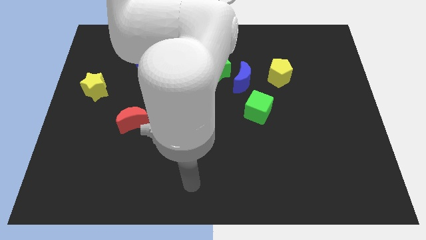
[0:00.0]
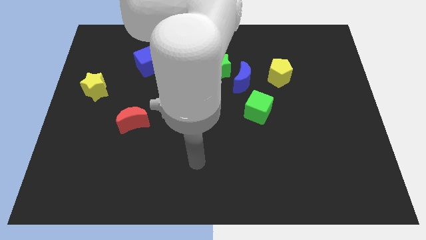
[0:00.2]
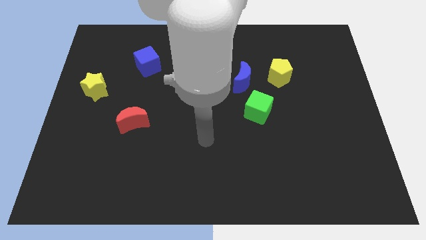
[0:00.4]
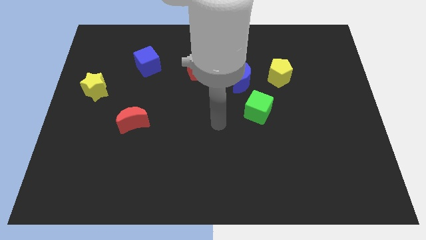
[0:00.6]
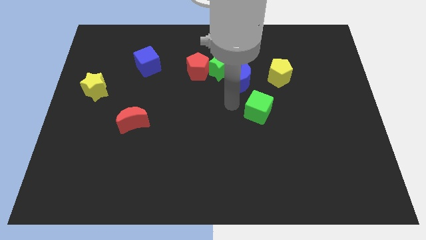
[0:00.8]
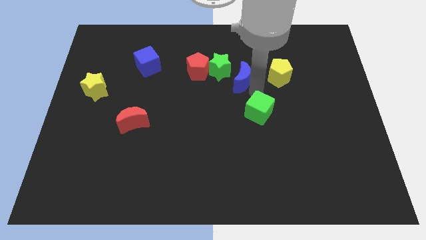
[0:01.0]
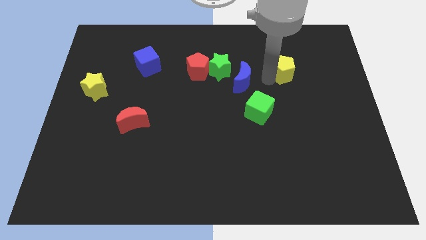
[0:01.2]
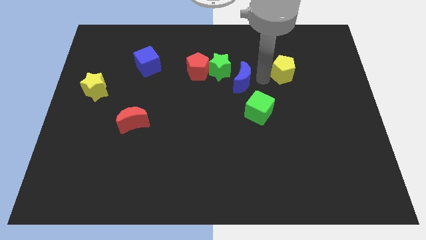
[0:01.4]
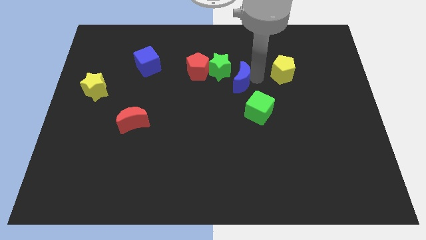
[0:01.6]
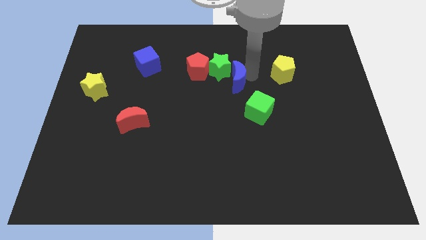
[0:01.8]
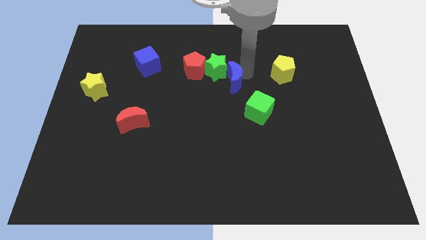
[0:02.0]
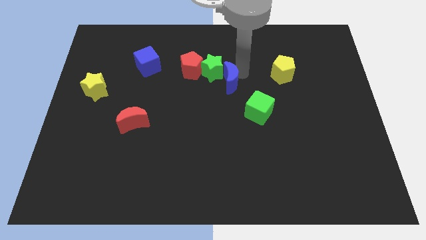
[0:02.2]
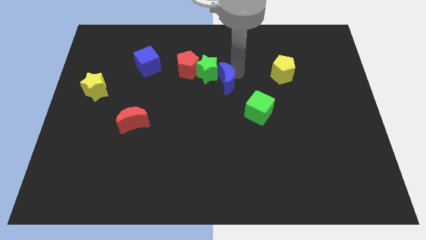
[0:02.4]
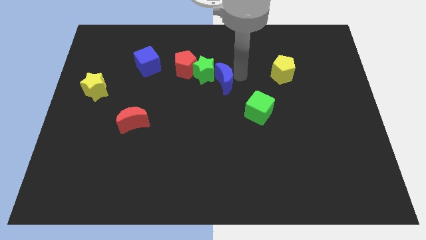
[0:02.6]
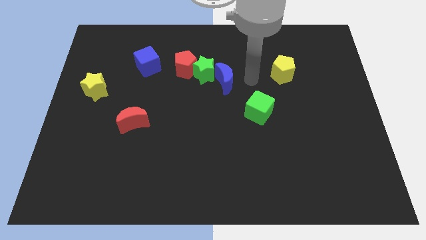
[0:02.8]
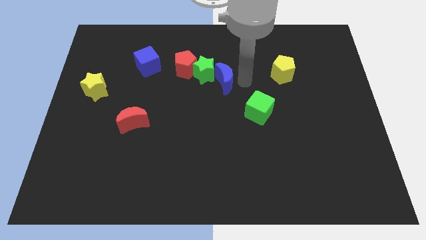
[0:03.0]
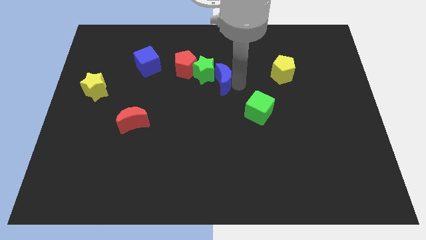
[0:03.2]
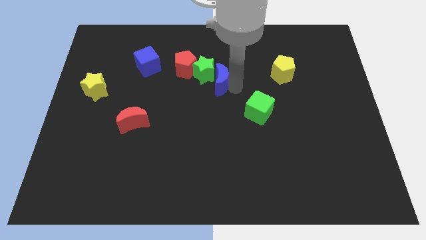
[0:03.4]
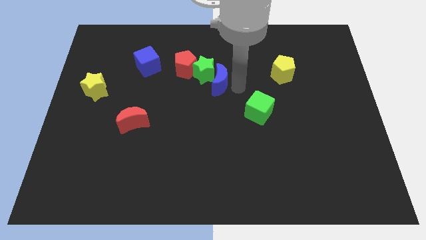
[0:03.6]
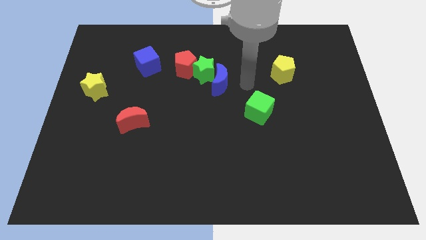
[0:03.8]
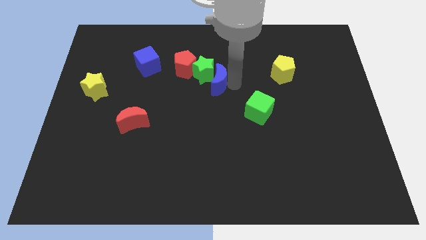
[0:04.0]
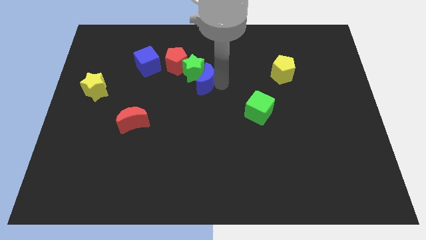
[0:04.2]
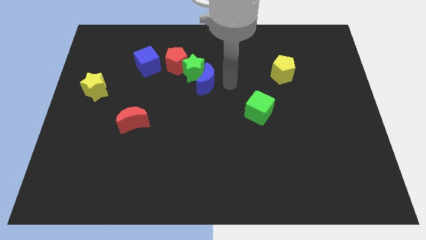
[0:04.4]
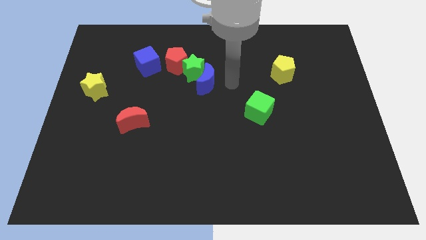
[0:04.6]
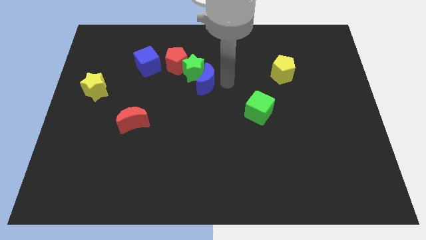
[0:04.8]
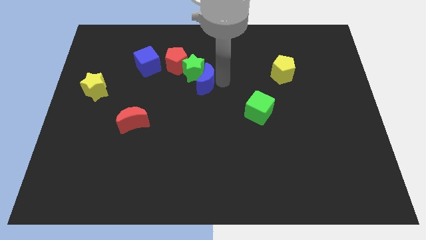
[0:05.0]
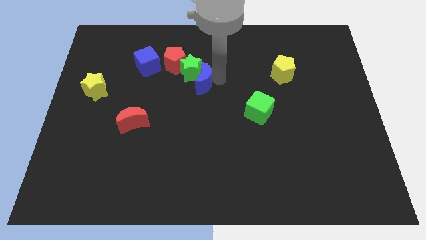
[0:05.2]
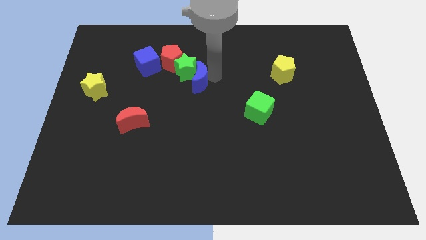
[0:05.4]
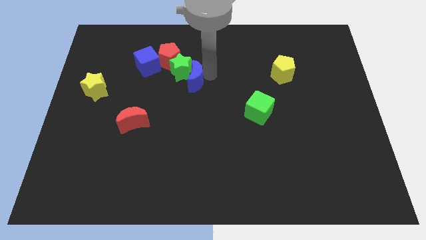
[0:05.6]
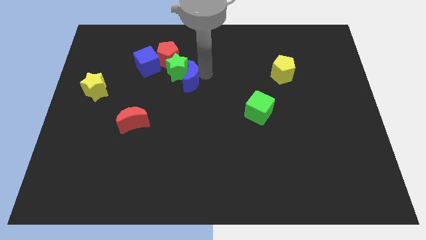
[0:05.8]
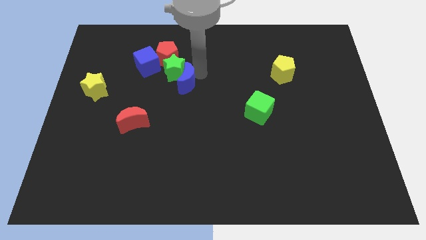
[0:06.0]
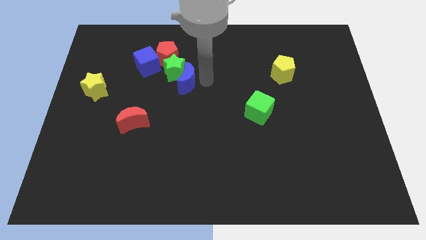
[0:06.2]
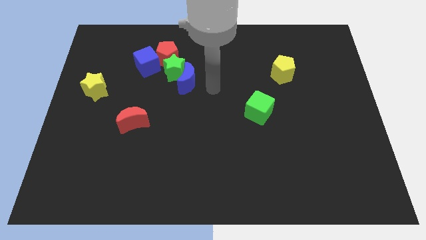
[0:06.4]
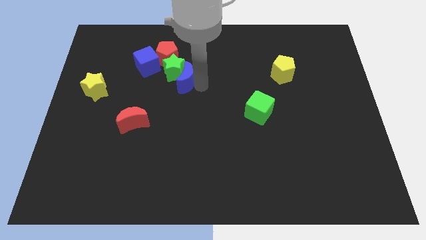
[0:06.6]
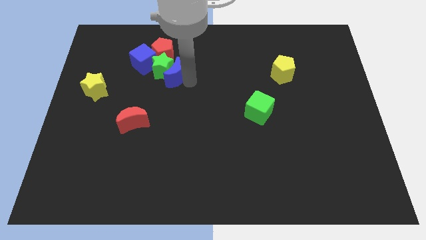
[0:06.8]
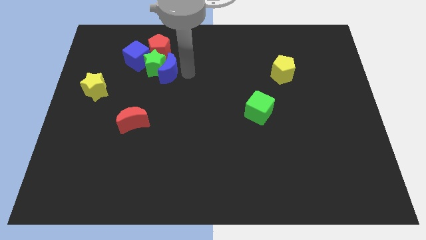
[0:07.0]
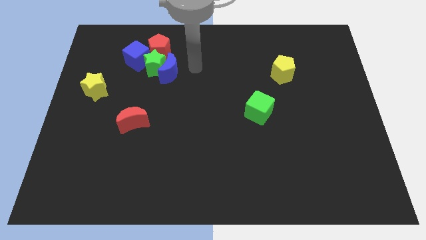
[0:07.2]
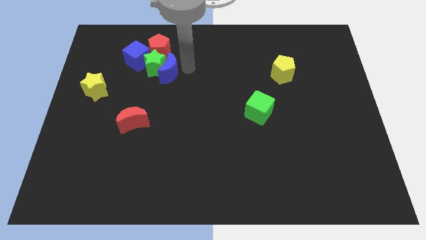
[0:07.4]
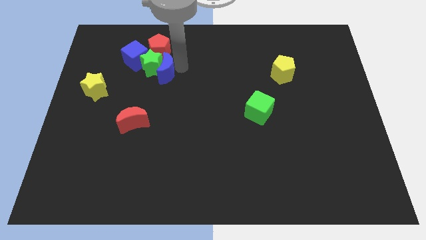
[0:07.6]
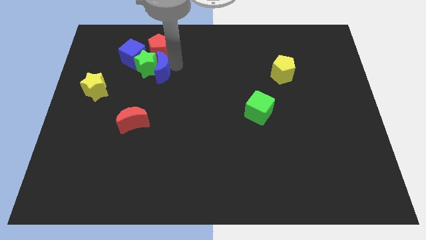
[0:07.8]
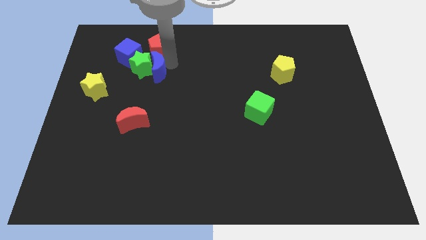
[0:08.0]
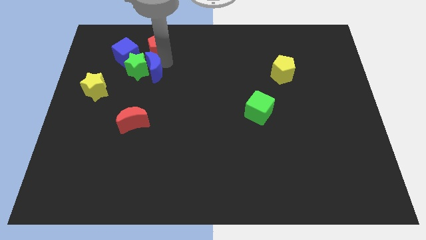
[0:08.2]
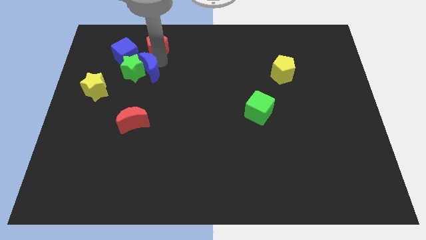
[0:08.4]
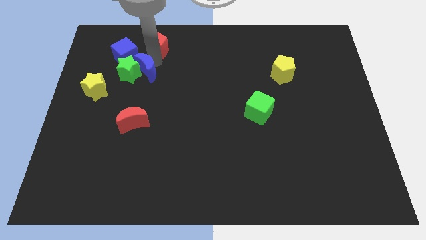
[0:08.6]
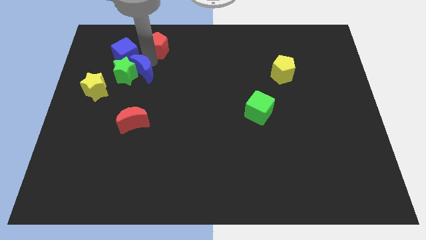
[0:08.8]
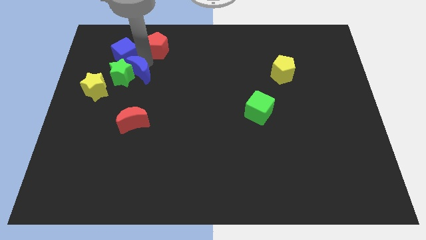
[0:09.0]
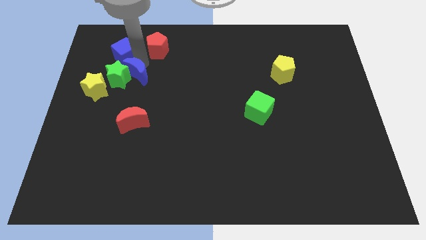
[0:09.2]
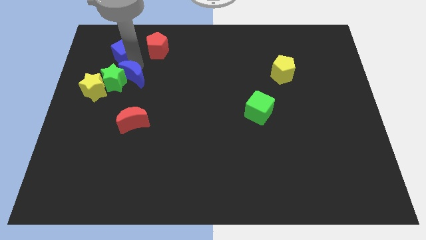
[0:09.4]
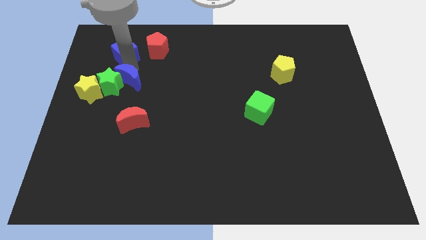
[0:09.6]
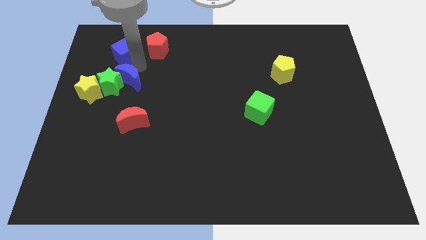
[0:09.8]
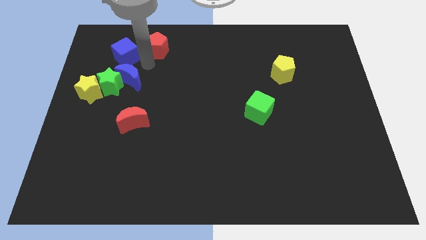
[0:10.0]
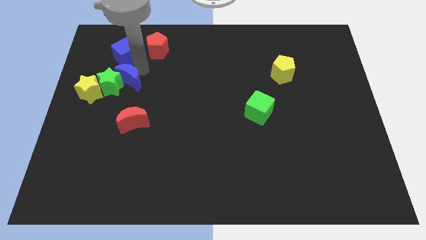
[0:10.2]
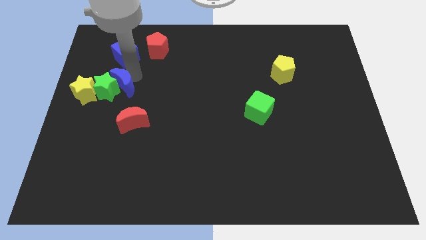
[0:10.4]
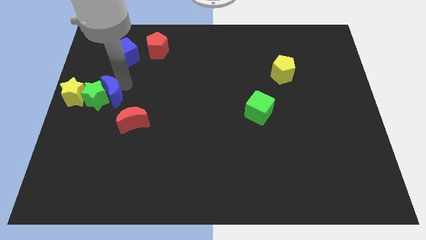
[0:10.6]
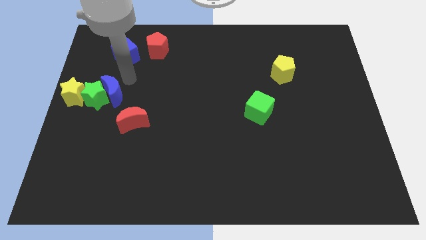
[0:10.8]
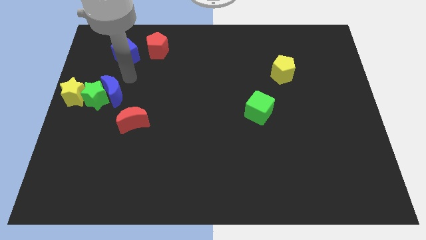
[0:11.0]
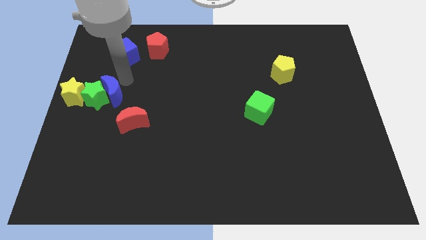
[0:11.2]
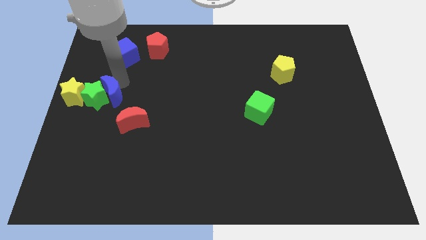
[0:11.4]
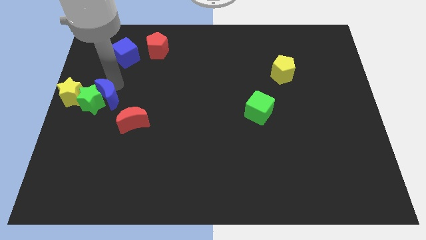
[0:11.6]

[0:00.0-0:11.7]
move the blue moon to the center left

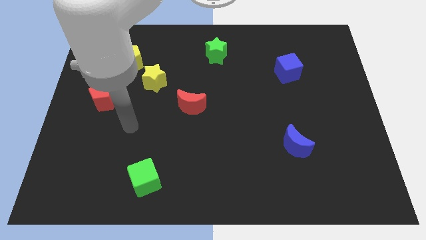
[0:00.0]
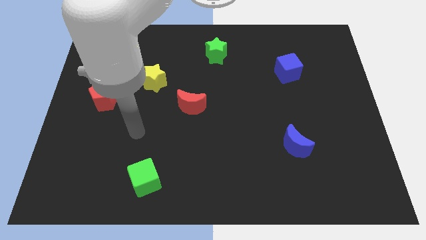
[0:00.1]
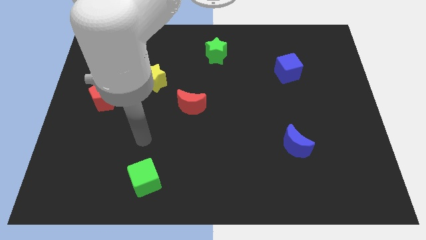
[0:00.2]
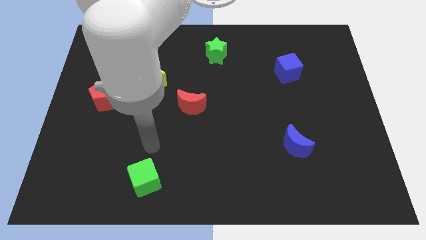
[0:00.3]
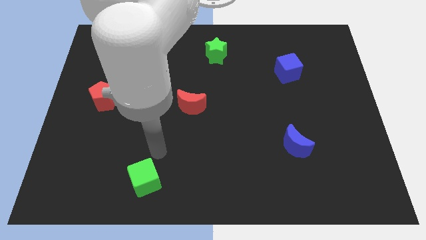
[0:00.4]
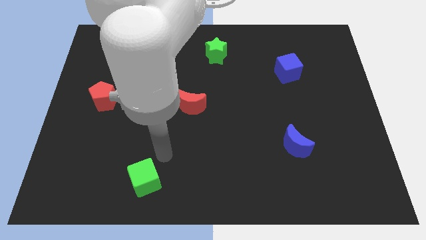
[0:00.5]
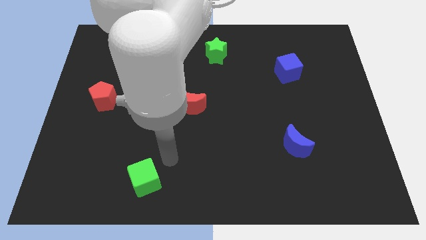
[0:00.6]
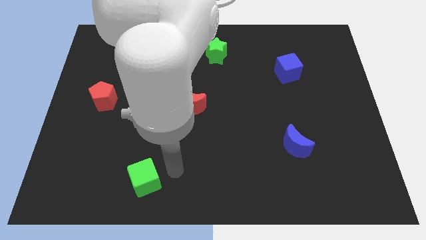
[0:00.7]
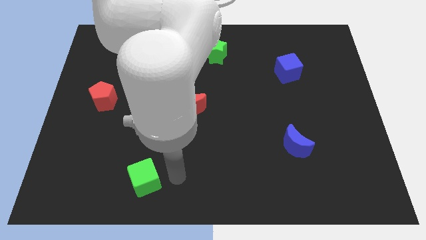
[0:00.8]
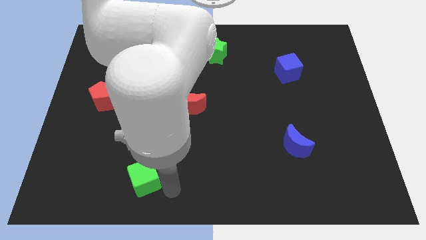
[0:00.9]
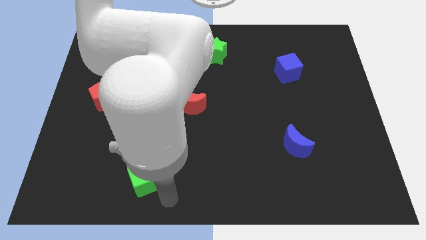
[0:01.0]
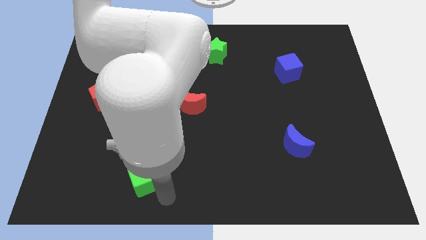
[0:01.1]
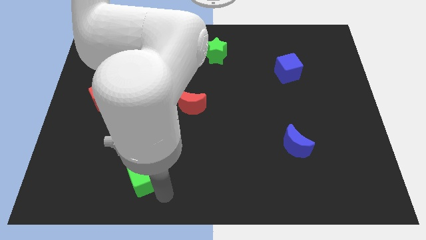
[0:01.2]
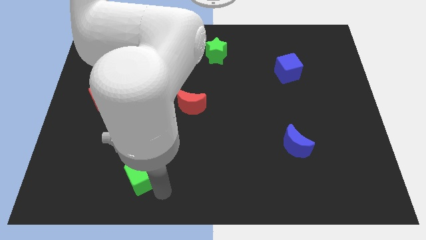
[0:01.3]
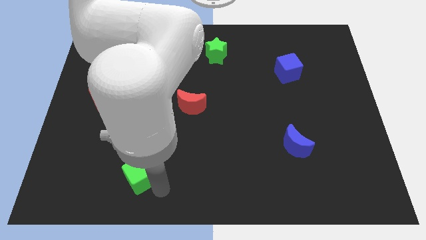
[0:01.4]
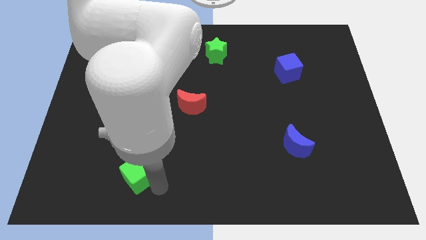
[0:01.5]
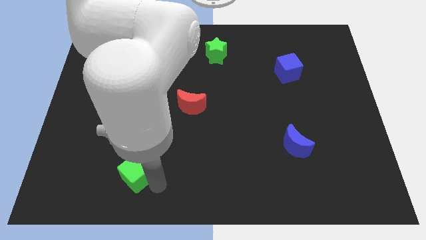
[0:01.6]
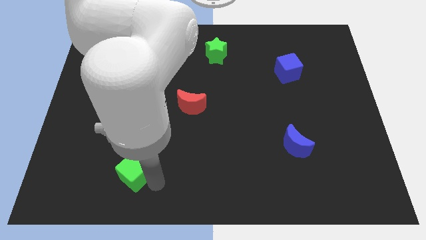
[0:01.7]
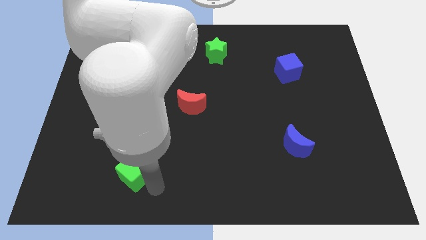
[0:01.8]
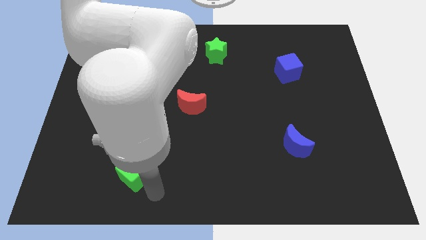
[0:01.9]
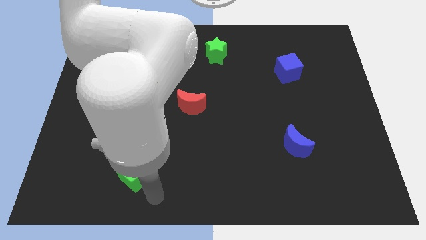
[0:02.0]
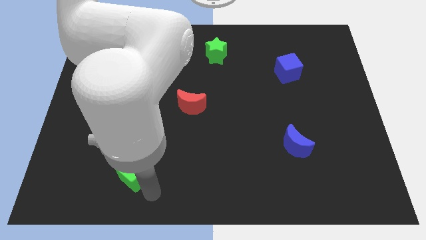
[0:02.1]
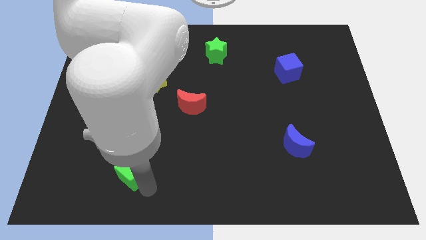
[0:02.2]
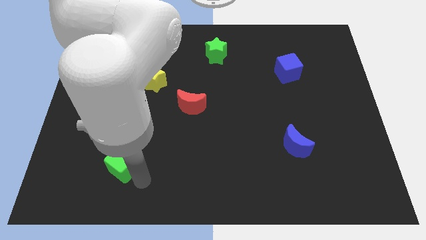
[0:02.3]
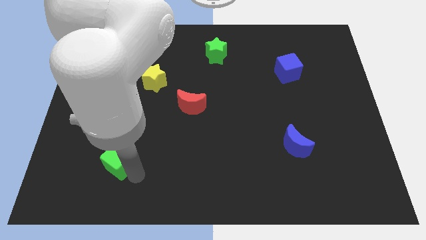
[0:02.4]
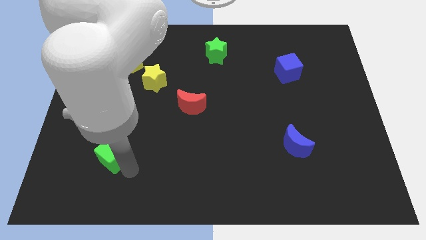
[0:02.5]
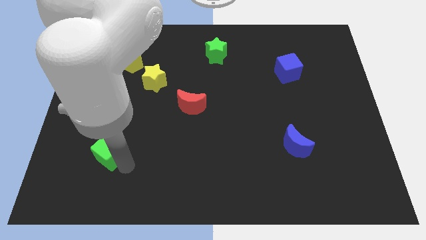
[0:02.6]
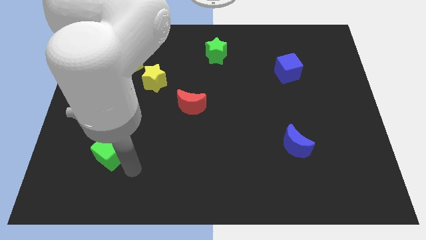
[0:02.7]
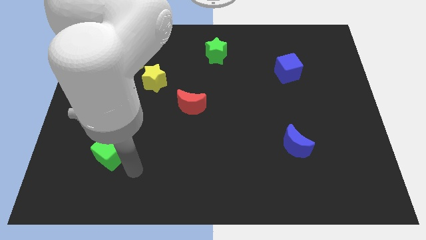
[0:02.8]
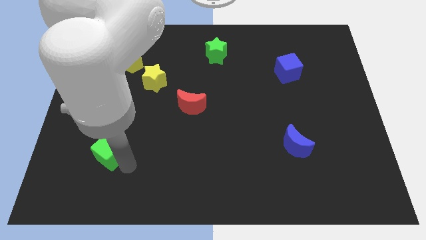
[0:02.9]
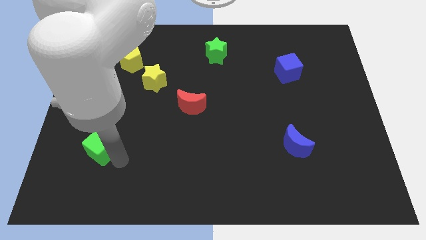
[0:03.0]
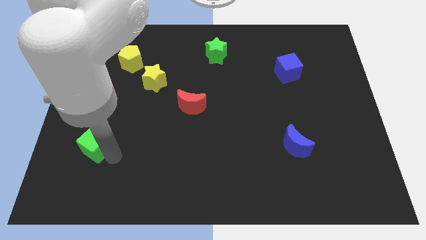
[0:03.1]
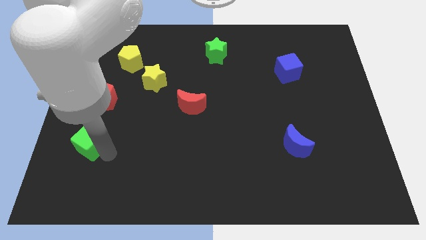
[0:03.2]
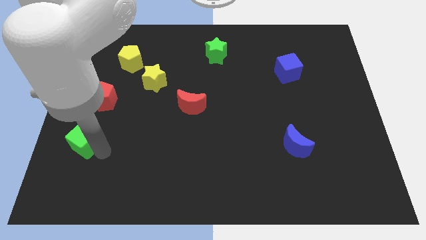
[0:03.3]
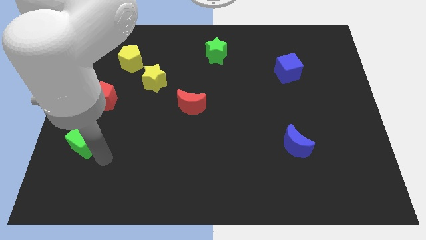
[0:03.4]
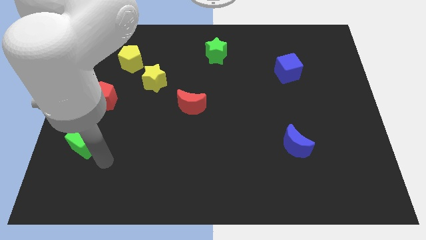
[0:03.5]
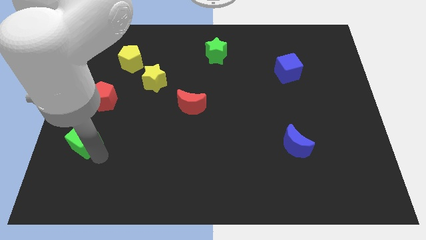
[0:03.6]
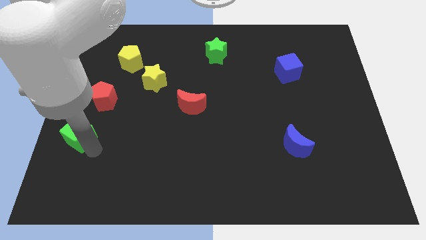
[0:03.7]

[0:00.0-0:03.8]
move the green cube to the left side
